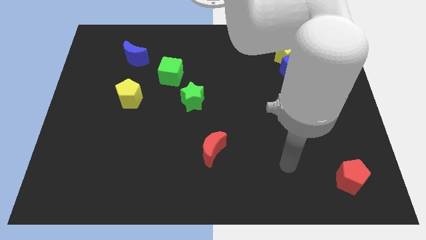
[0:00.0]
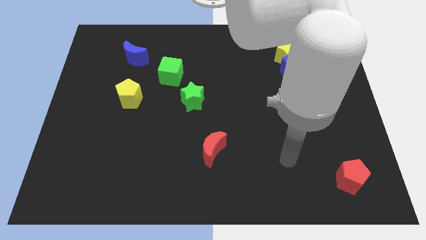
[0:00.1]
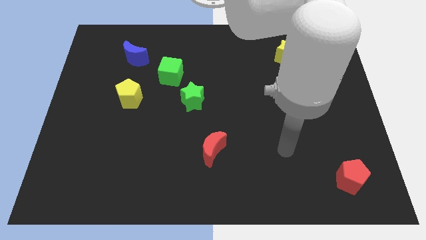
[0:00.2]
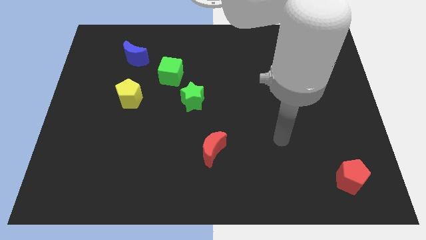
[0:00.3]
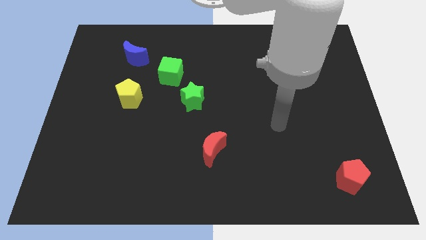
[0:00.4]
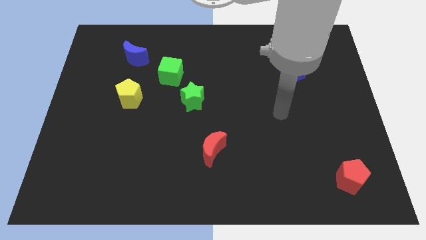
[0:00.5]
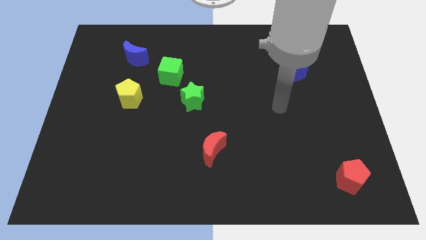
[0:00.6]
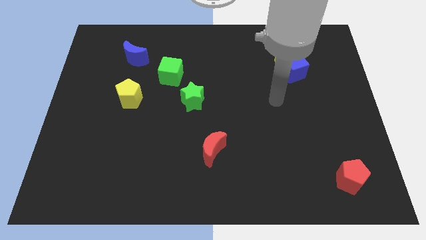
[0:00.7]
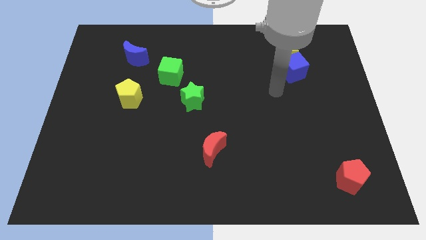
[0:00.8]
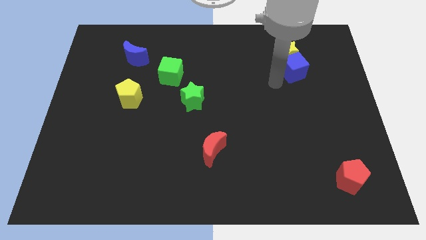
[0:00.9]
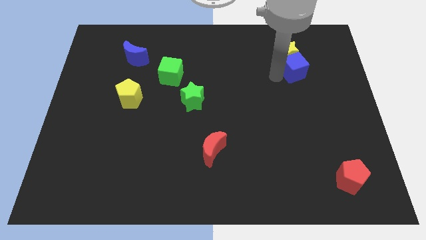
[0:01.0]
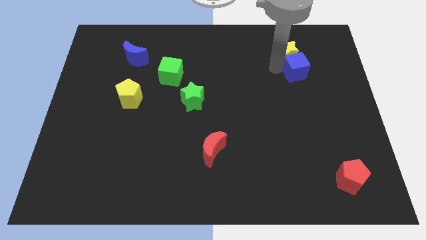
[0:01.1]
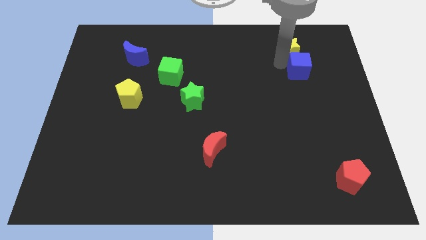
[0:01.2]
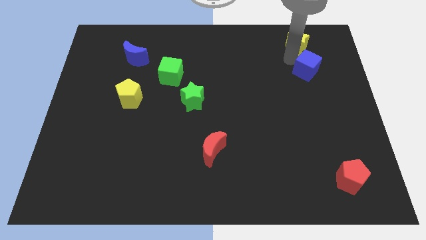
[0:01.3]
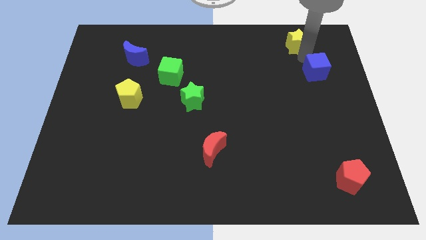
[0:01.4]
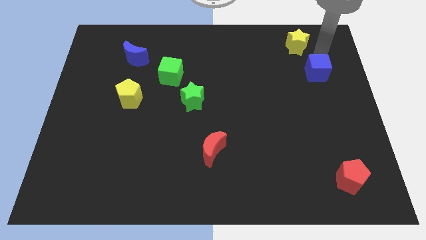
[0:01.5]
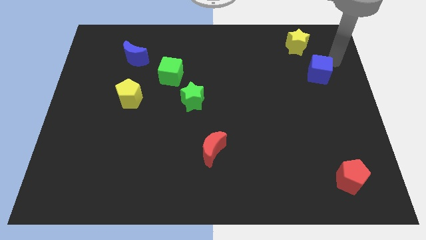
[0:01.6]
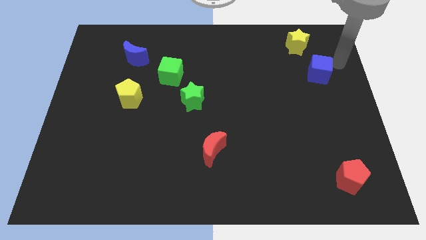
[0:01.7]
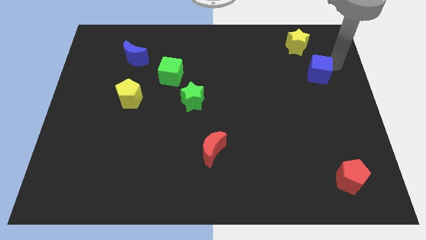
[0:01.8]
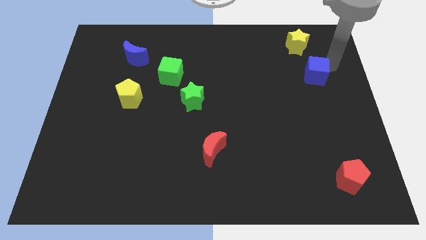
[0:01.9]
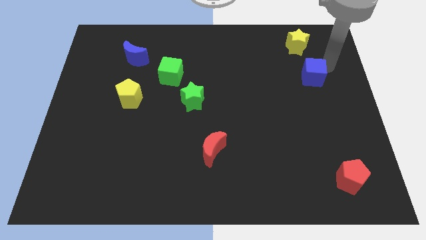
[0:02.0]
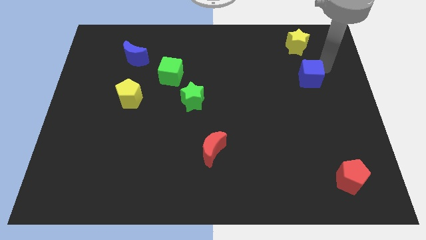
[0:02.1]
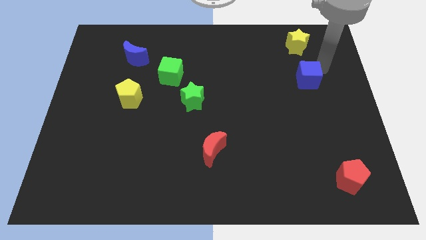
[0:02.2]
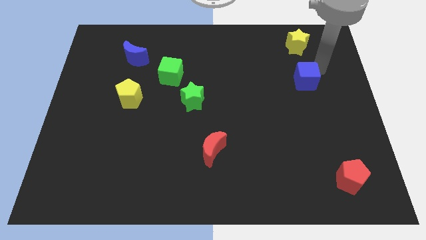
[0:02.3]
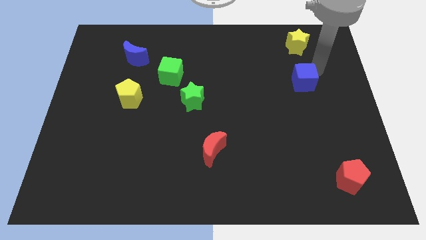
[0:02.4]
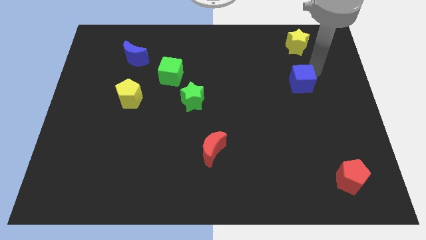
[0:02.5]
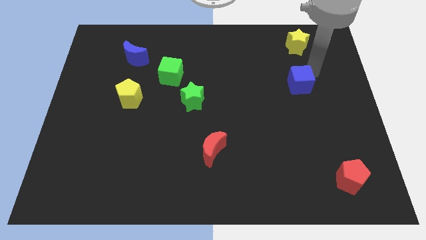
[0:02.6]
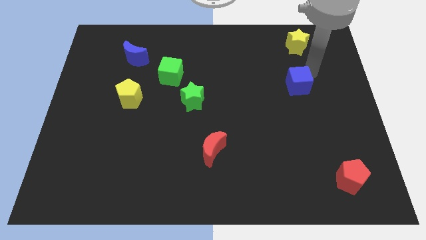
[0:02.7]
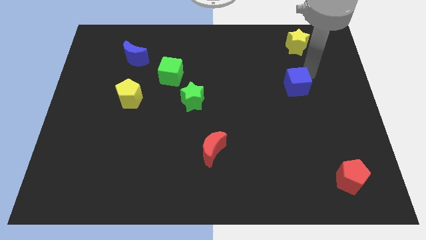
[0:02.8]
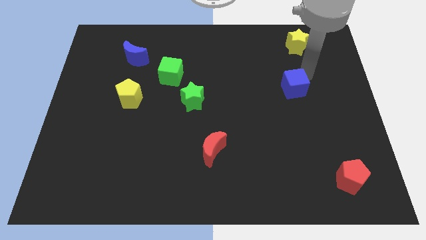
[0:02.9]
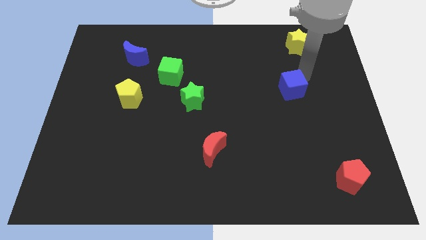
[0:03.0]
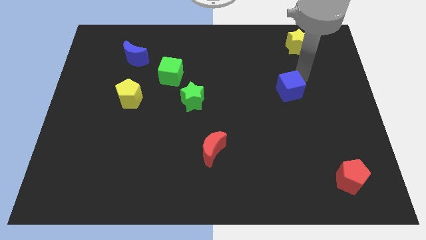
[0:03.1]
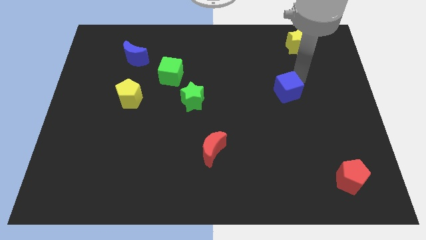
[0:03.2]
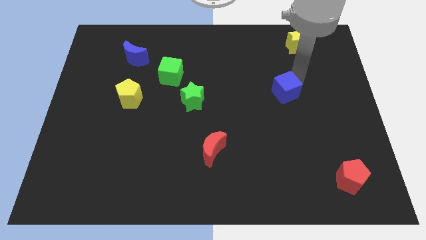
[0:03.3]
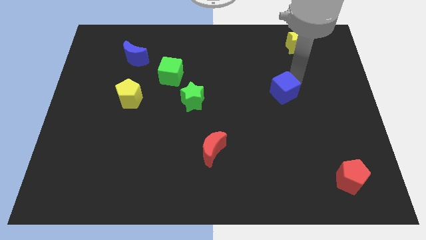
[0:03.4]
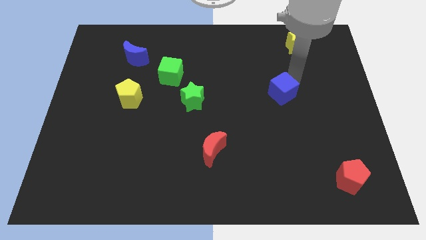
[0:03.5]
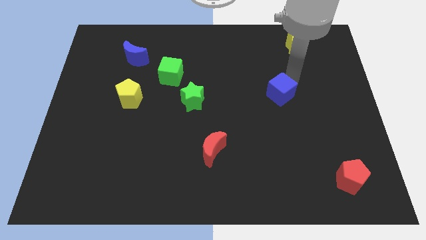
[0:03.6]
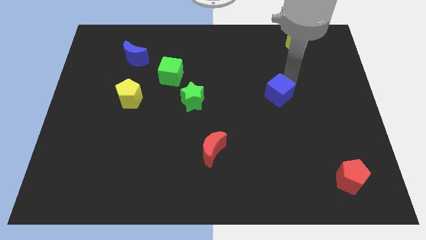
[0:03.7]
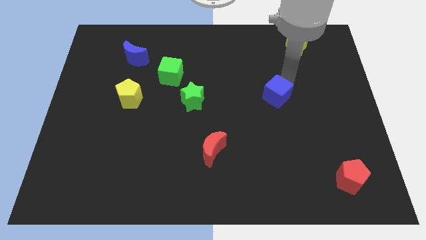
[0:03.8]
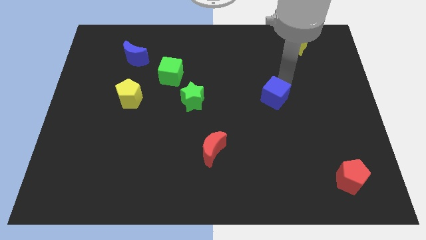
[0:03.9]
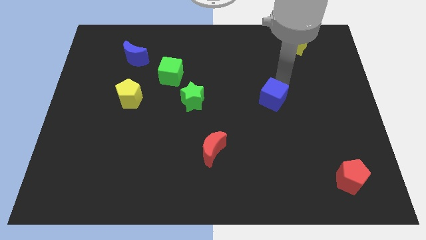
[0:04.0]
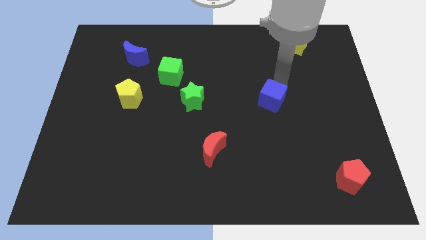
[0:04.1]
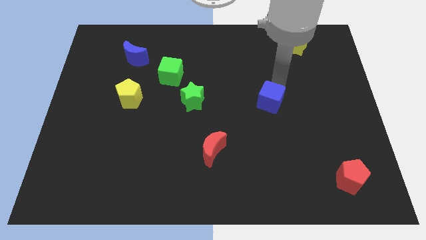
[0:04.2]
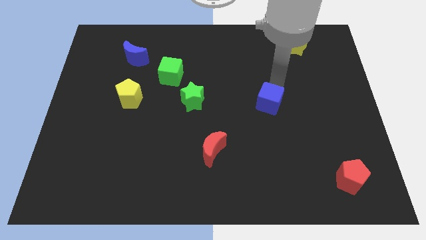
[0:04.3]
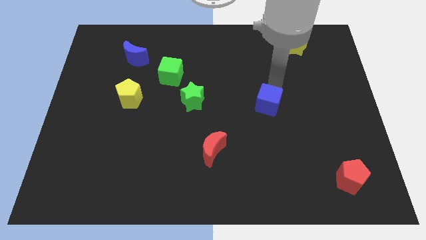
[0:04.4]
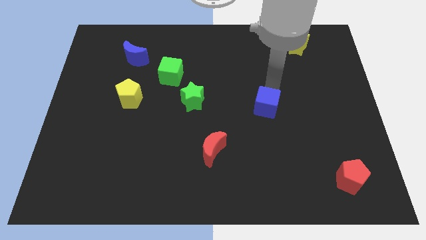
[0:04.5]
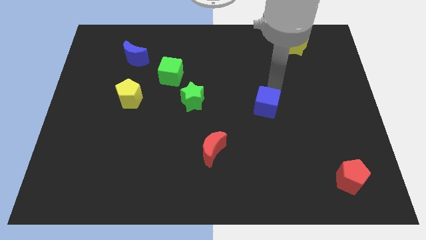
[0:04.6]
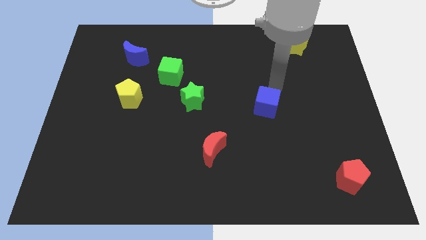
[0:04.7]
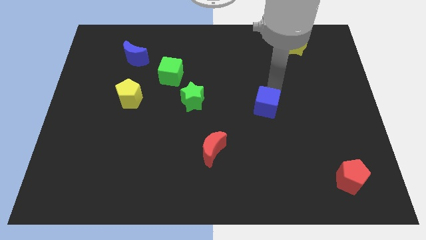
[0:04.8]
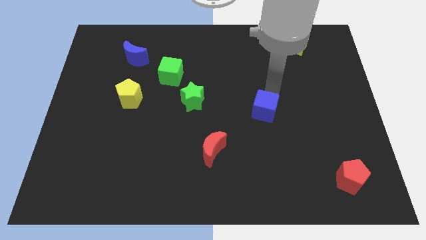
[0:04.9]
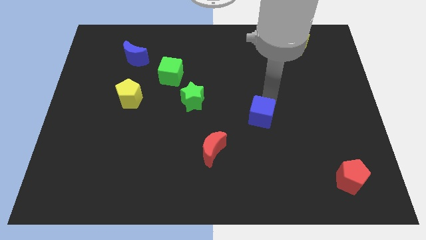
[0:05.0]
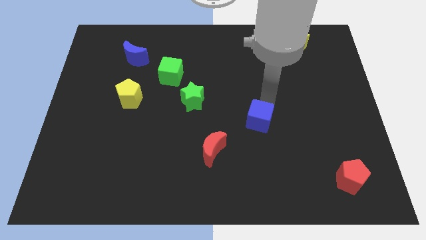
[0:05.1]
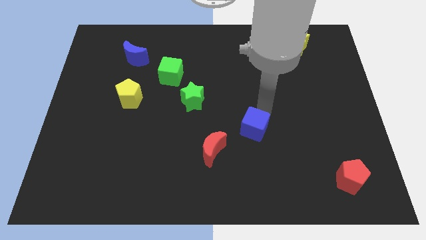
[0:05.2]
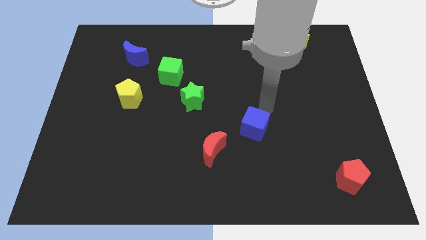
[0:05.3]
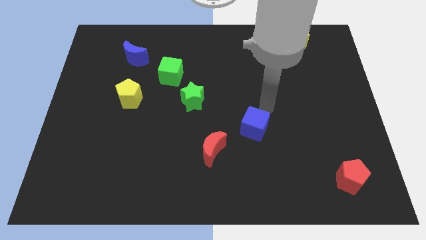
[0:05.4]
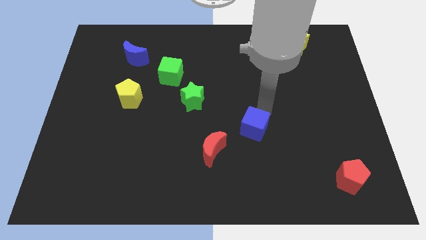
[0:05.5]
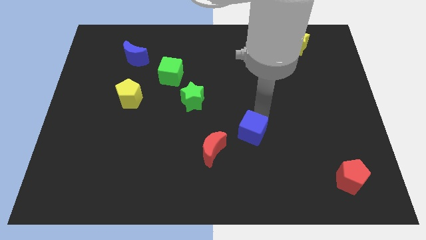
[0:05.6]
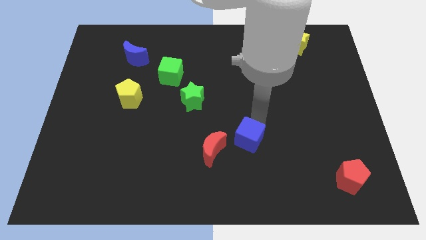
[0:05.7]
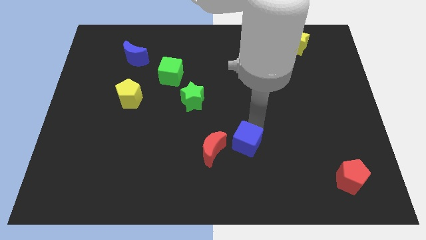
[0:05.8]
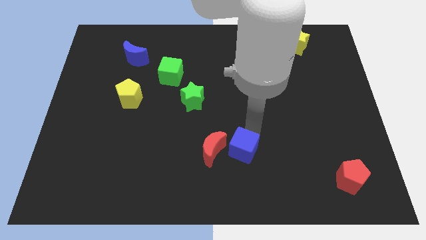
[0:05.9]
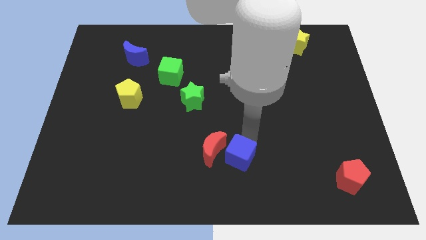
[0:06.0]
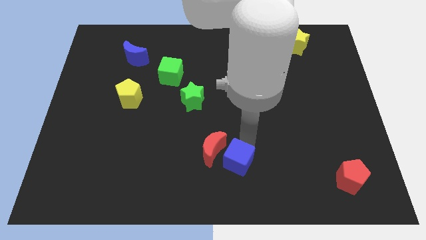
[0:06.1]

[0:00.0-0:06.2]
move the blue cube to the bottom
